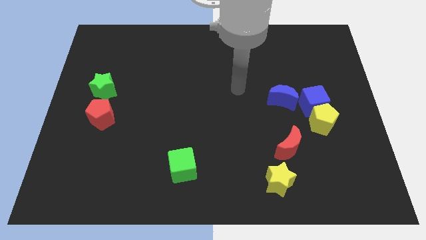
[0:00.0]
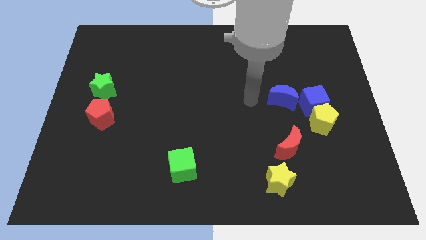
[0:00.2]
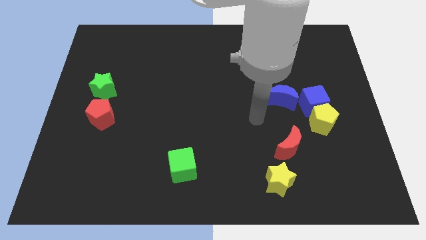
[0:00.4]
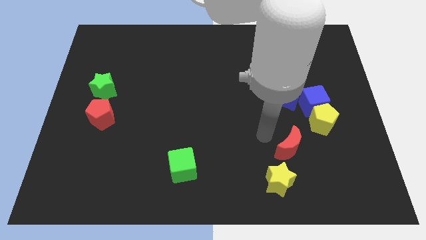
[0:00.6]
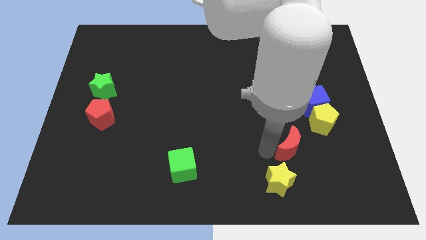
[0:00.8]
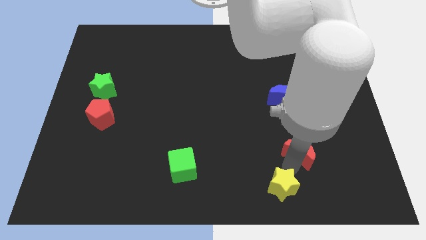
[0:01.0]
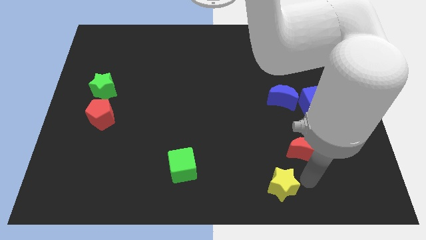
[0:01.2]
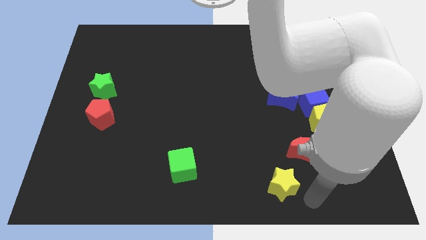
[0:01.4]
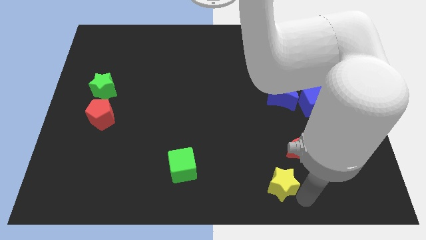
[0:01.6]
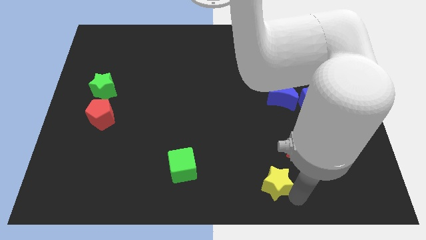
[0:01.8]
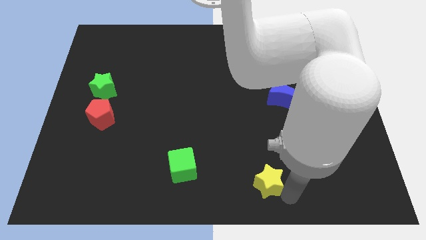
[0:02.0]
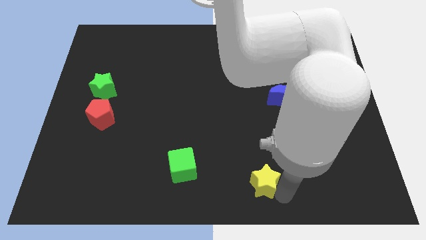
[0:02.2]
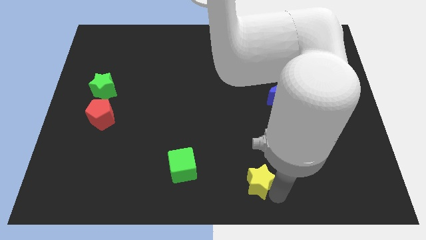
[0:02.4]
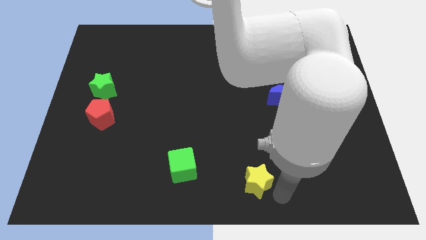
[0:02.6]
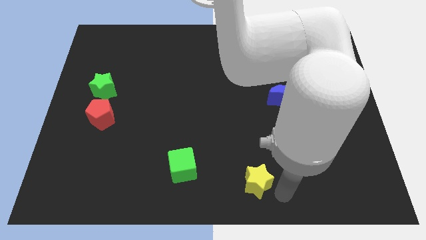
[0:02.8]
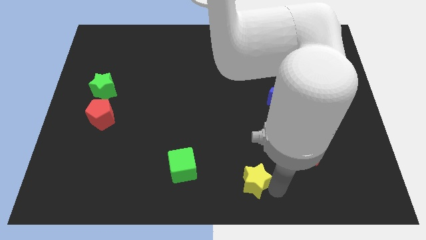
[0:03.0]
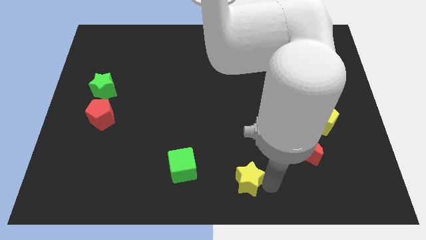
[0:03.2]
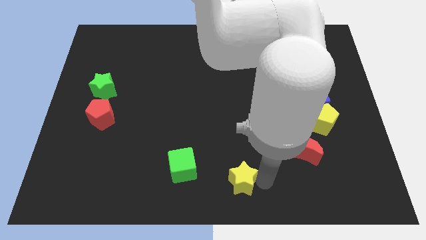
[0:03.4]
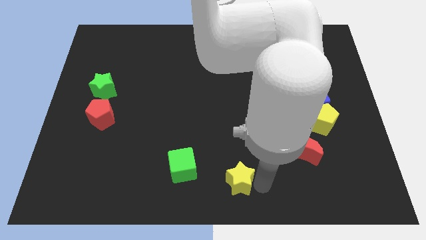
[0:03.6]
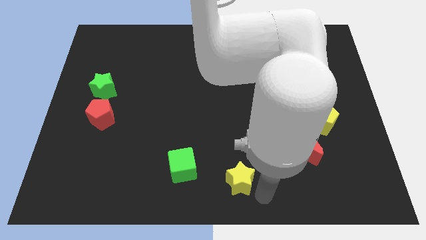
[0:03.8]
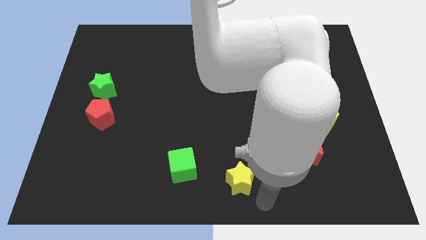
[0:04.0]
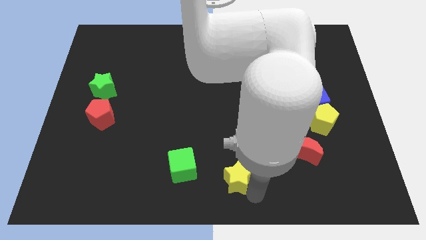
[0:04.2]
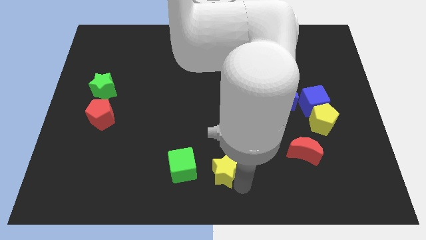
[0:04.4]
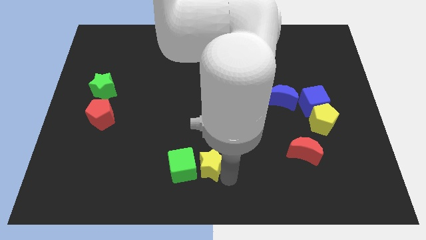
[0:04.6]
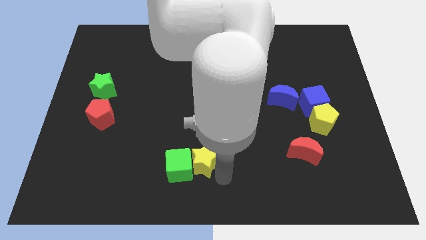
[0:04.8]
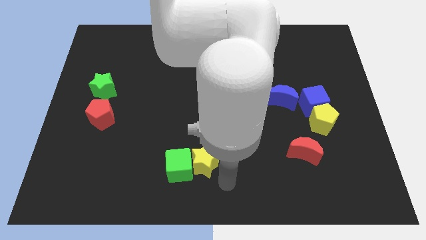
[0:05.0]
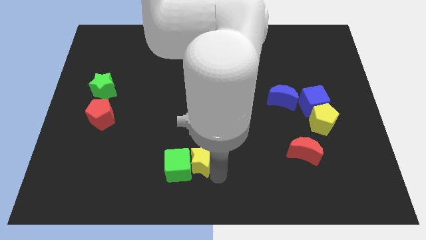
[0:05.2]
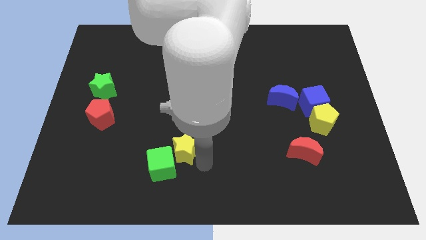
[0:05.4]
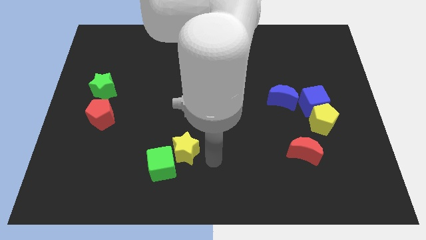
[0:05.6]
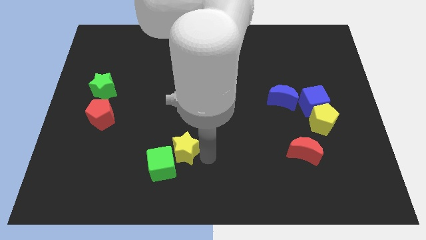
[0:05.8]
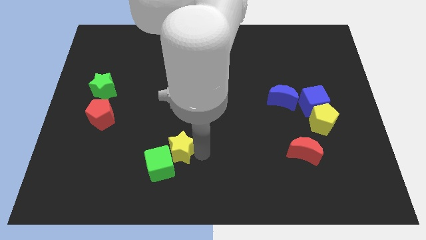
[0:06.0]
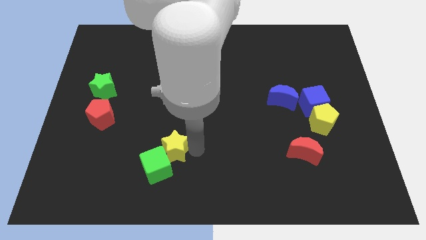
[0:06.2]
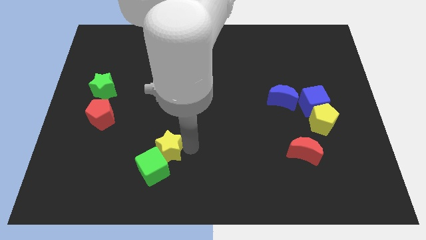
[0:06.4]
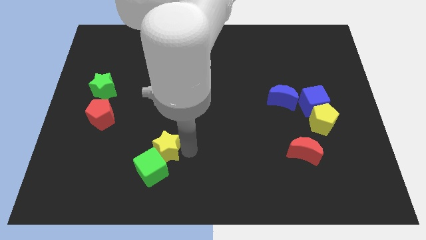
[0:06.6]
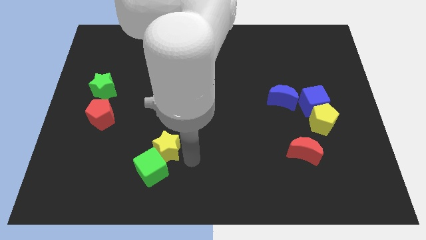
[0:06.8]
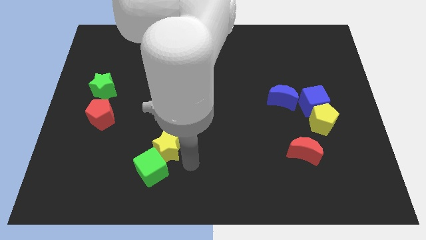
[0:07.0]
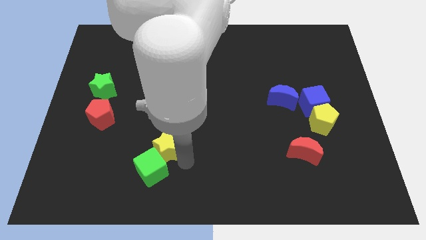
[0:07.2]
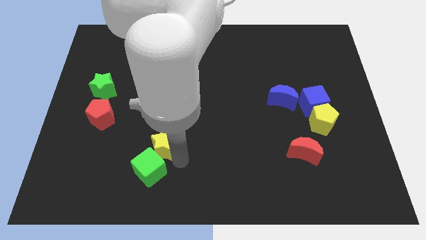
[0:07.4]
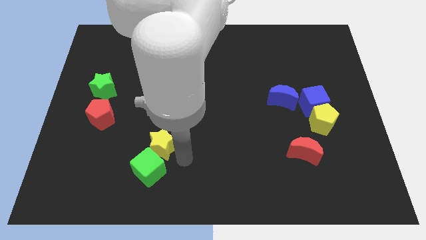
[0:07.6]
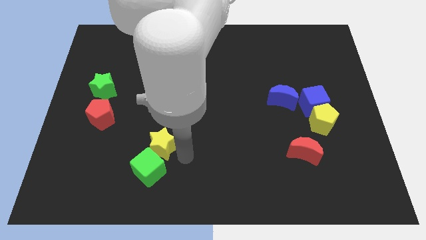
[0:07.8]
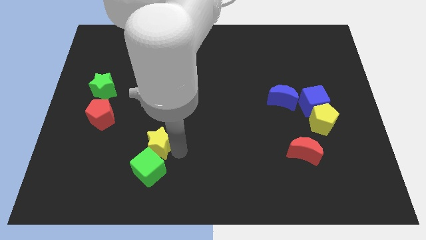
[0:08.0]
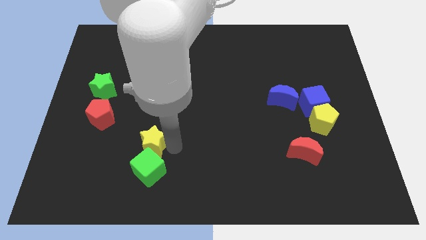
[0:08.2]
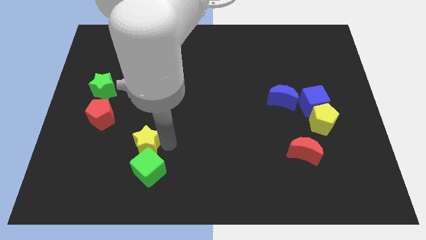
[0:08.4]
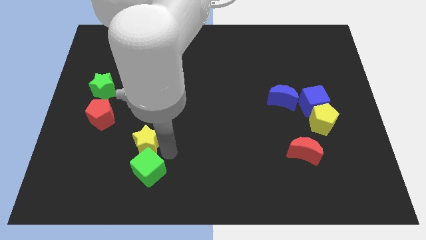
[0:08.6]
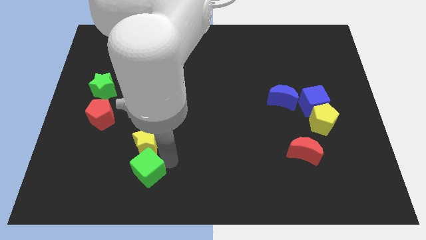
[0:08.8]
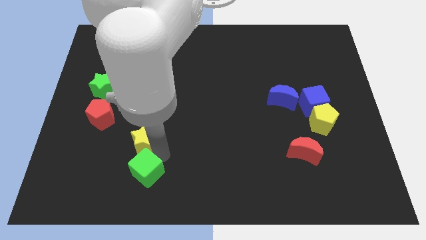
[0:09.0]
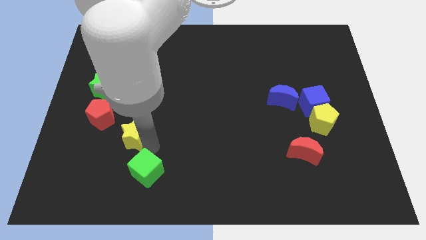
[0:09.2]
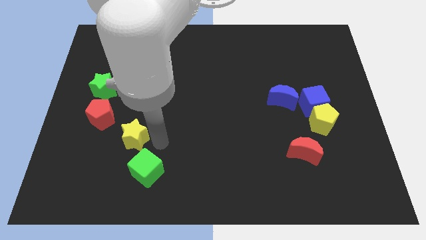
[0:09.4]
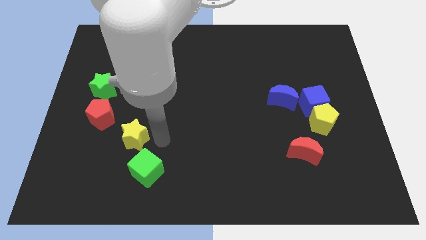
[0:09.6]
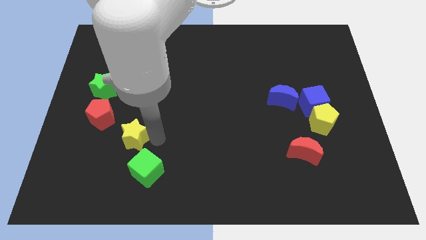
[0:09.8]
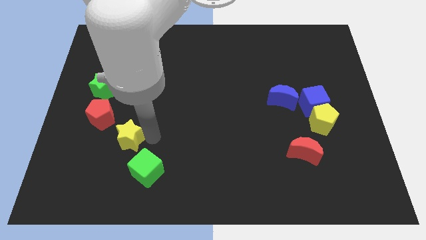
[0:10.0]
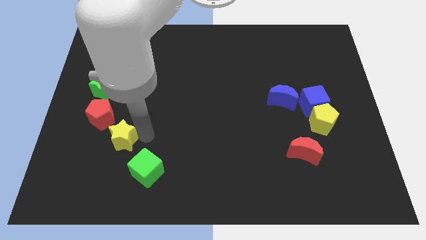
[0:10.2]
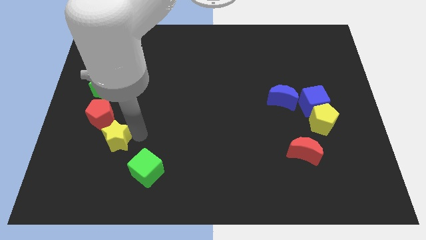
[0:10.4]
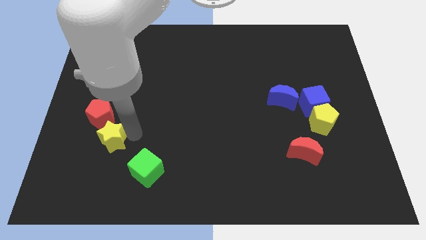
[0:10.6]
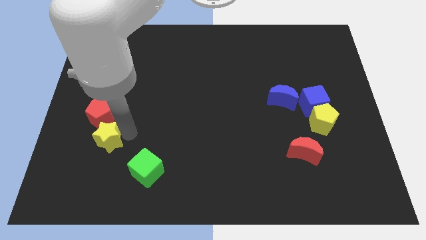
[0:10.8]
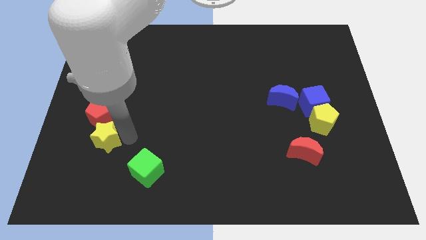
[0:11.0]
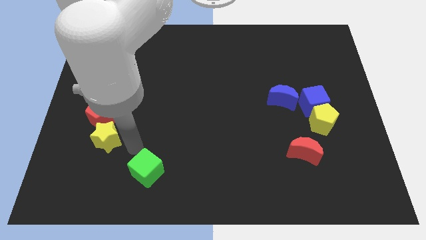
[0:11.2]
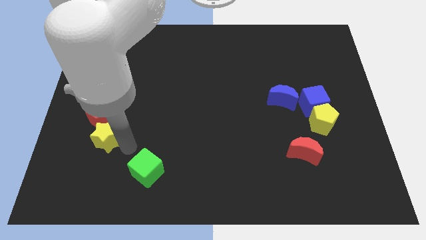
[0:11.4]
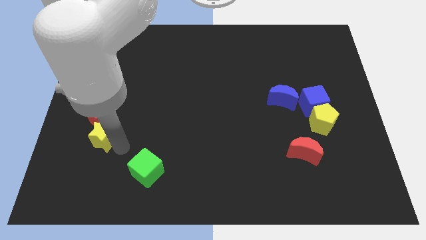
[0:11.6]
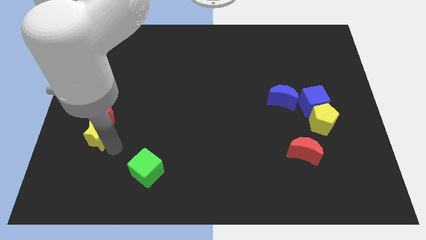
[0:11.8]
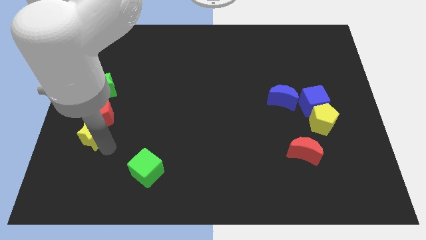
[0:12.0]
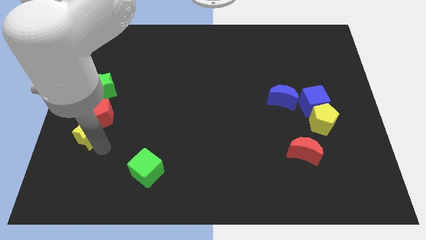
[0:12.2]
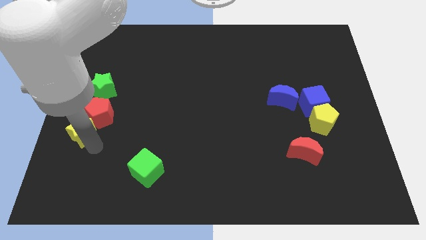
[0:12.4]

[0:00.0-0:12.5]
move the yellow star to the left side

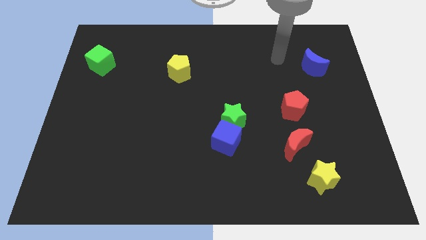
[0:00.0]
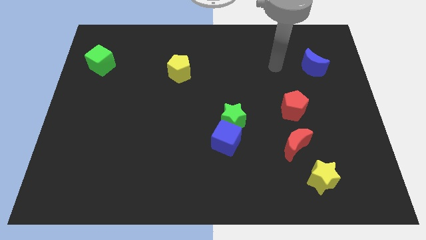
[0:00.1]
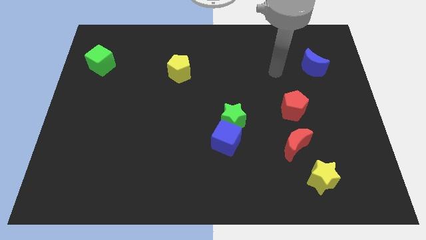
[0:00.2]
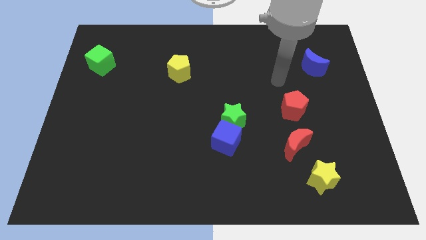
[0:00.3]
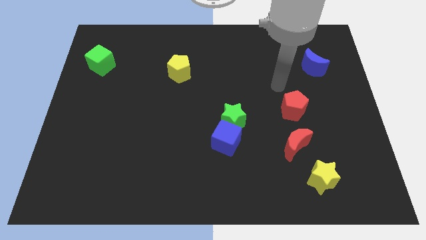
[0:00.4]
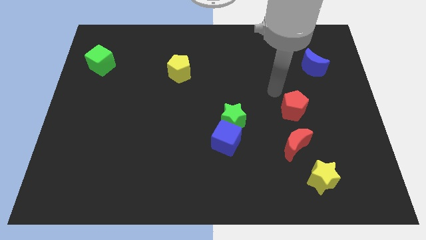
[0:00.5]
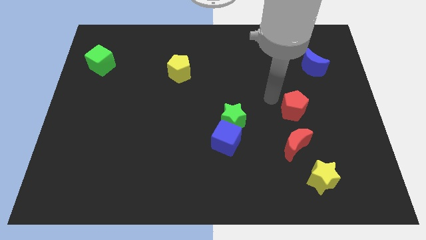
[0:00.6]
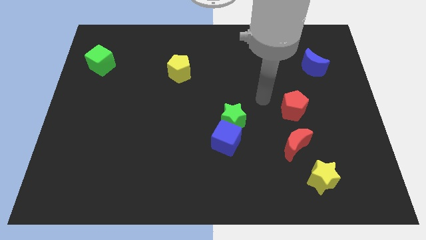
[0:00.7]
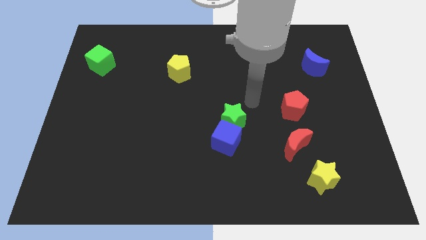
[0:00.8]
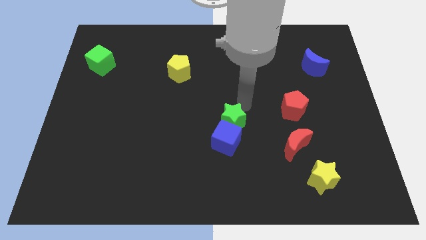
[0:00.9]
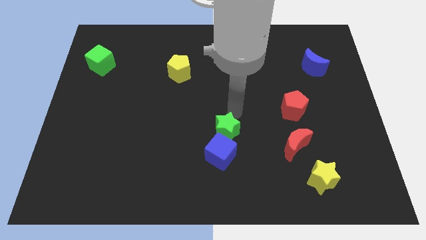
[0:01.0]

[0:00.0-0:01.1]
put the blue cube to the bottom
